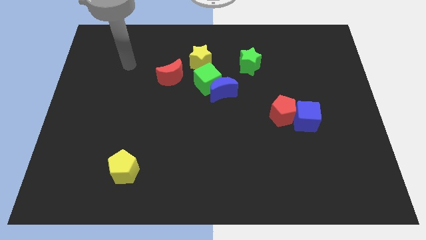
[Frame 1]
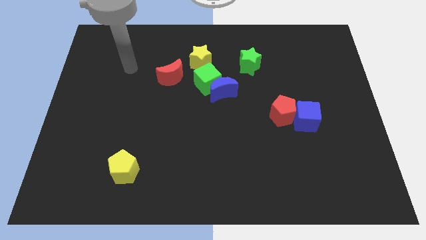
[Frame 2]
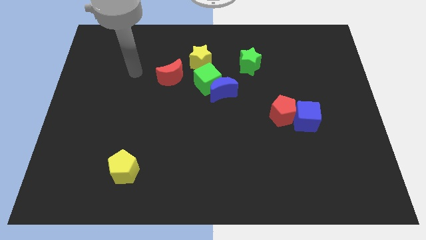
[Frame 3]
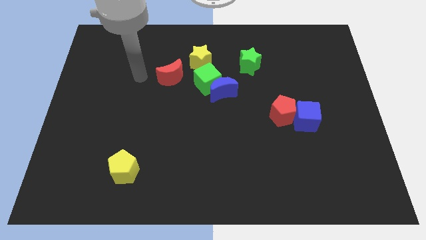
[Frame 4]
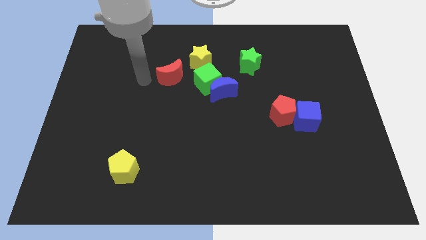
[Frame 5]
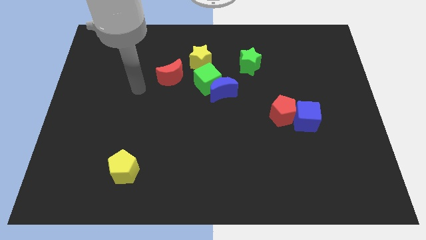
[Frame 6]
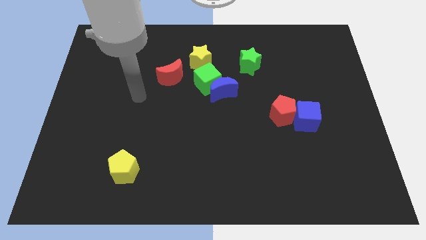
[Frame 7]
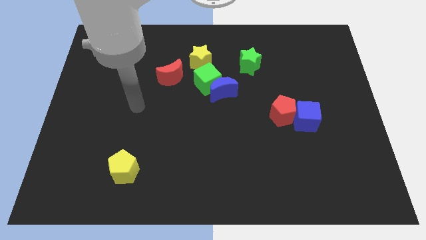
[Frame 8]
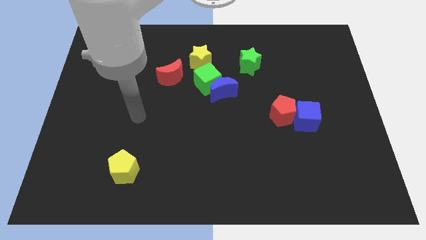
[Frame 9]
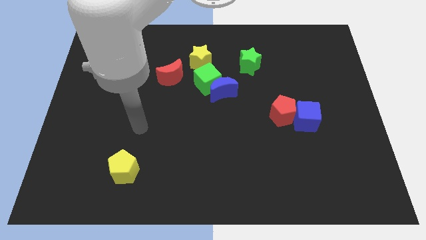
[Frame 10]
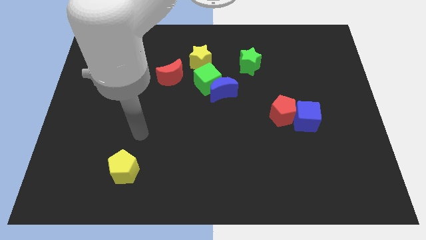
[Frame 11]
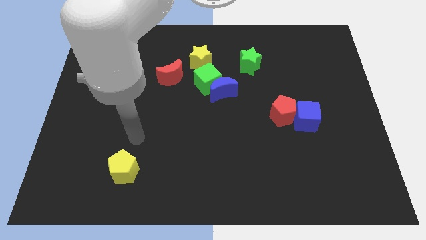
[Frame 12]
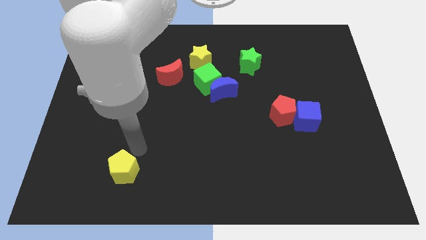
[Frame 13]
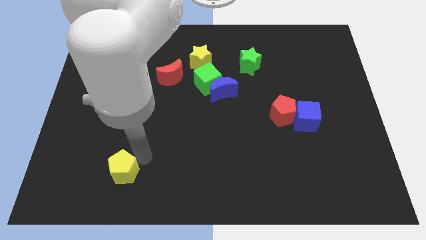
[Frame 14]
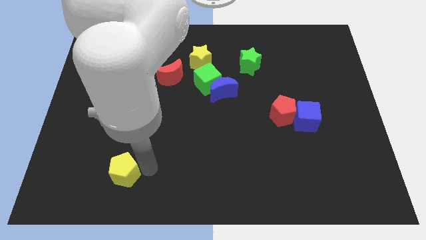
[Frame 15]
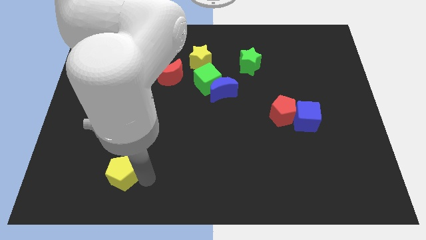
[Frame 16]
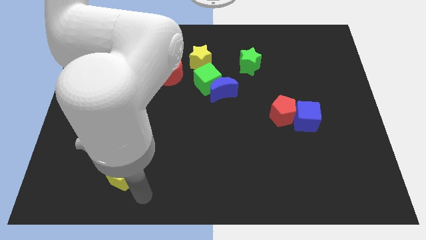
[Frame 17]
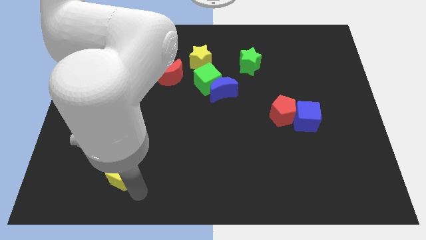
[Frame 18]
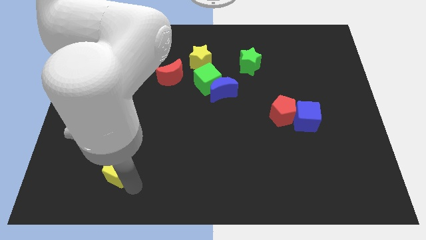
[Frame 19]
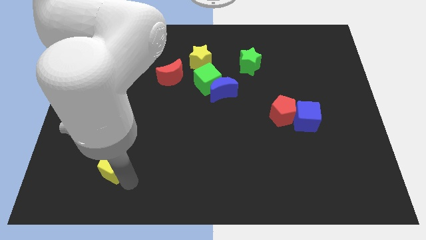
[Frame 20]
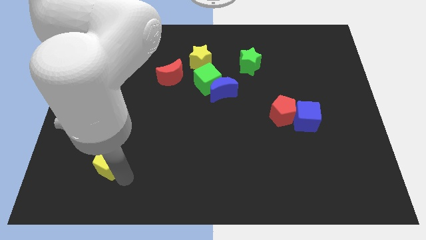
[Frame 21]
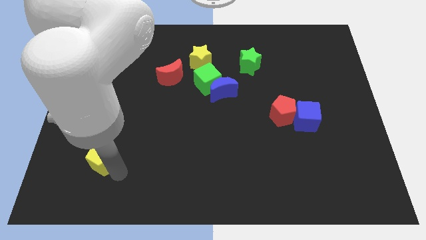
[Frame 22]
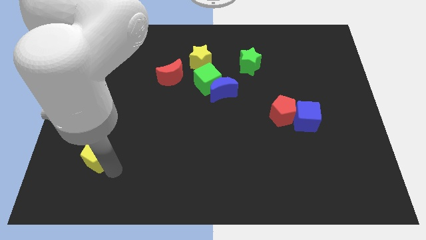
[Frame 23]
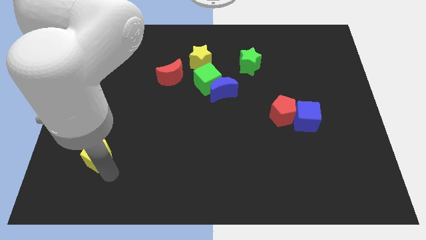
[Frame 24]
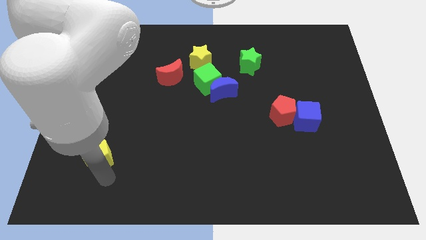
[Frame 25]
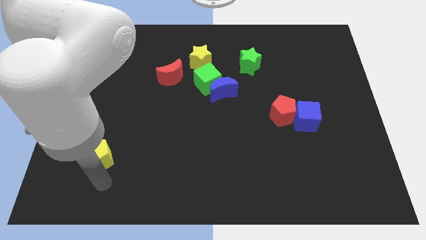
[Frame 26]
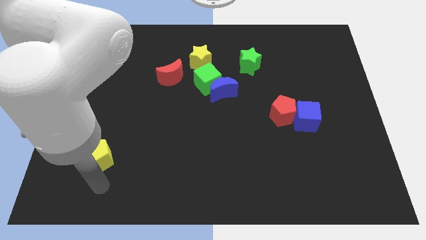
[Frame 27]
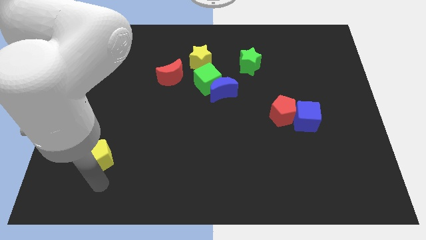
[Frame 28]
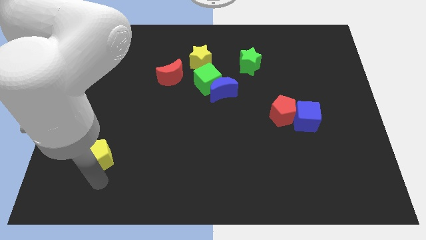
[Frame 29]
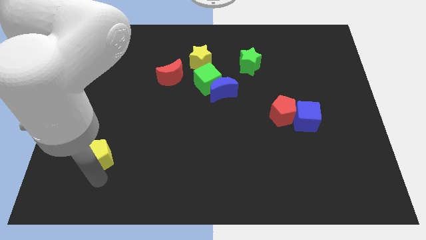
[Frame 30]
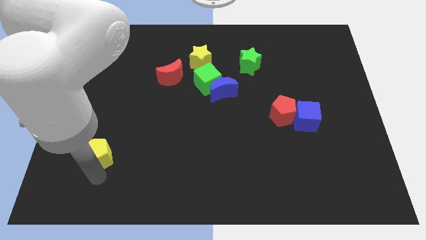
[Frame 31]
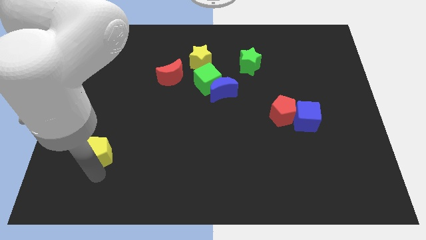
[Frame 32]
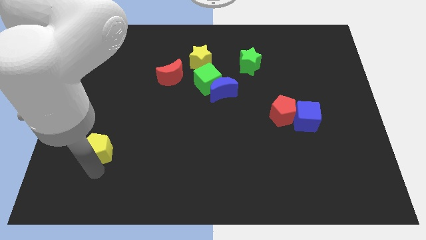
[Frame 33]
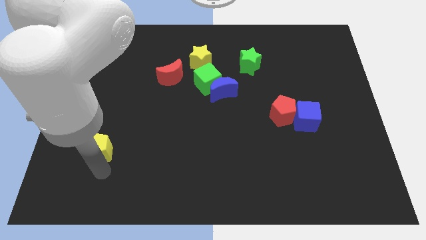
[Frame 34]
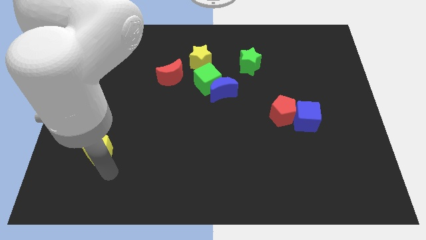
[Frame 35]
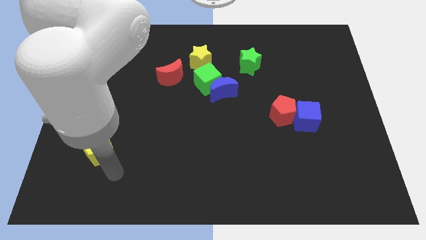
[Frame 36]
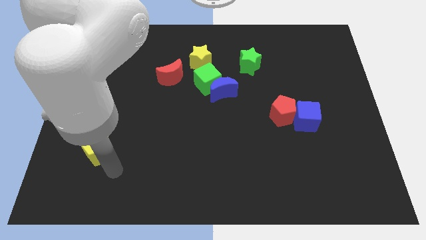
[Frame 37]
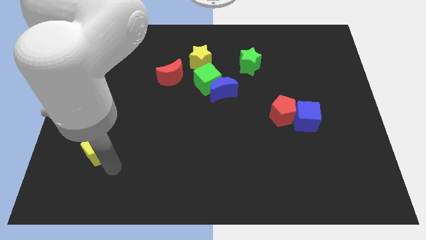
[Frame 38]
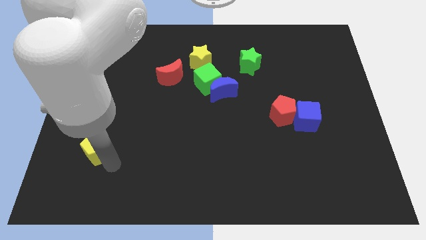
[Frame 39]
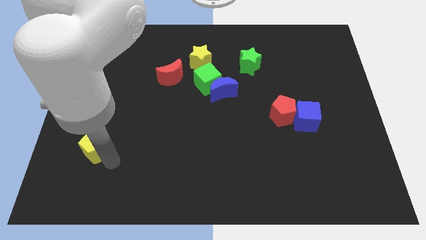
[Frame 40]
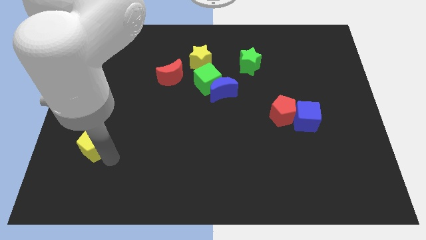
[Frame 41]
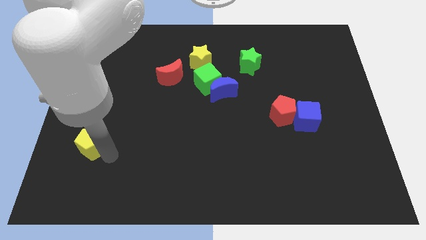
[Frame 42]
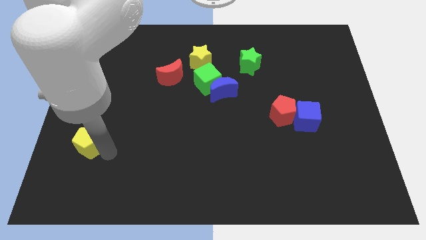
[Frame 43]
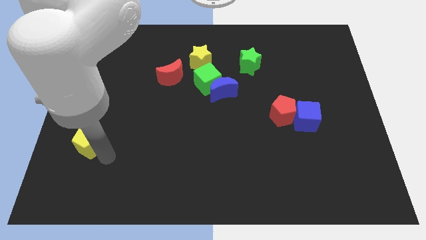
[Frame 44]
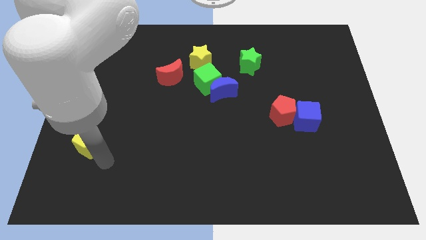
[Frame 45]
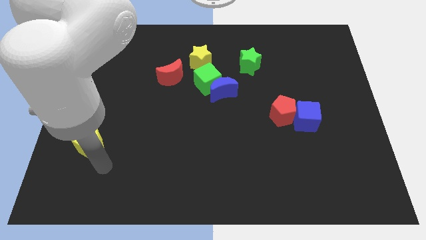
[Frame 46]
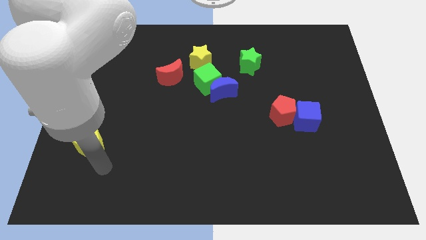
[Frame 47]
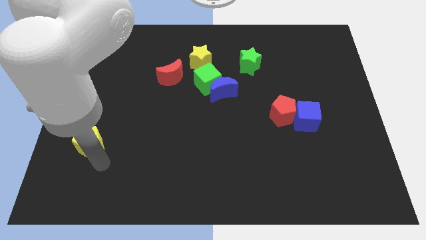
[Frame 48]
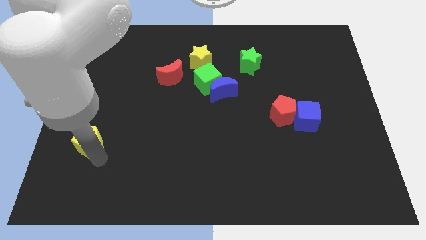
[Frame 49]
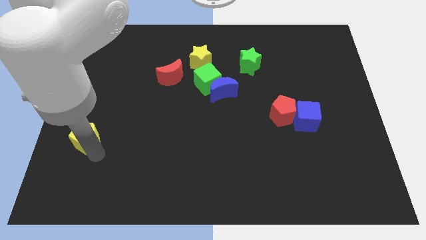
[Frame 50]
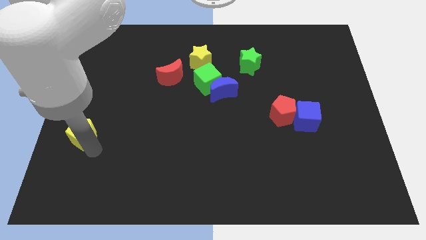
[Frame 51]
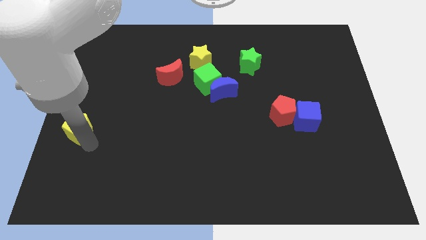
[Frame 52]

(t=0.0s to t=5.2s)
move the yellow pentagon to the left side of the board

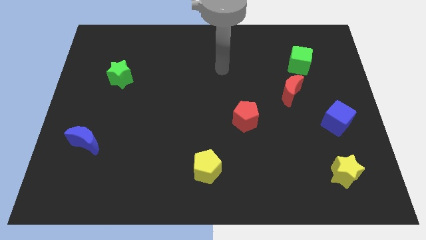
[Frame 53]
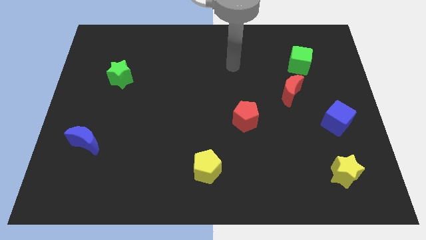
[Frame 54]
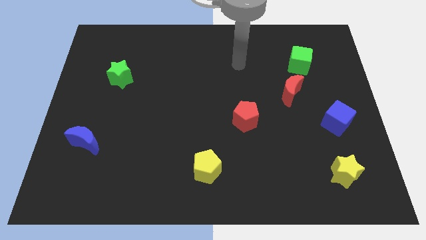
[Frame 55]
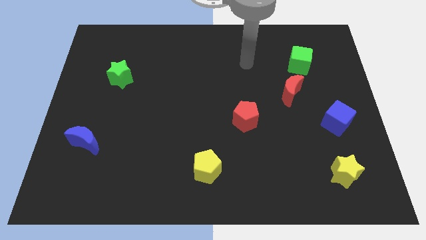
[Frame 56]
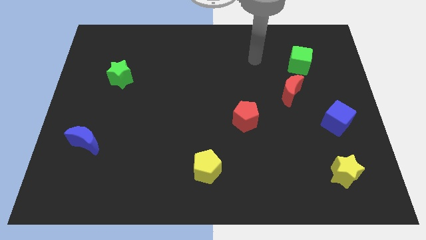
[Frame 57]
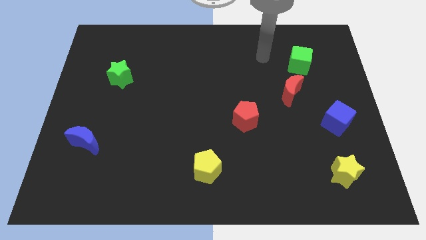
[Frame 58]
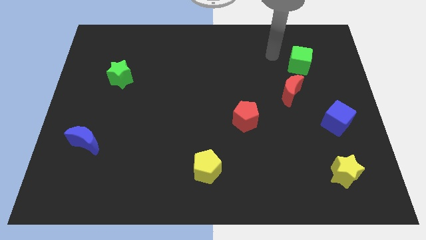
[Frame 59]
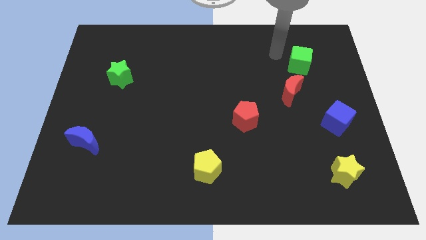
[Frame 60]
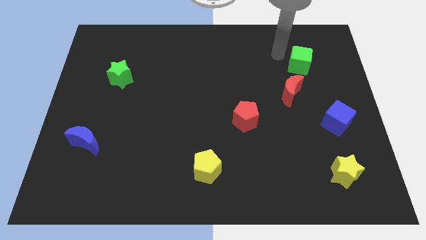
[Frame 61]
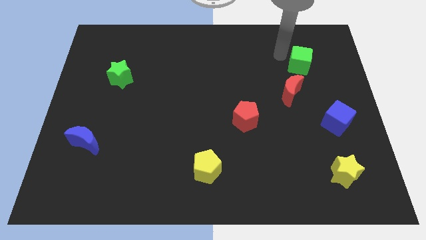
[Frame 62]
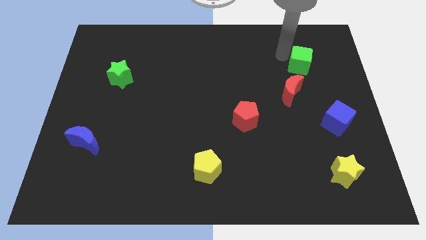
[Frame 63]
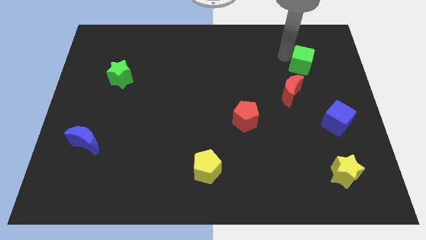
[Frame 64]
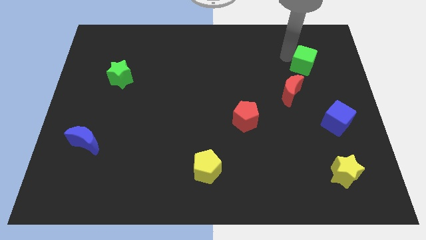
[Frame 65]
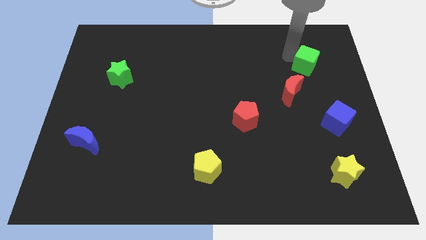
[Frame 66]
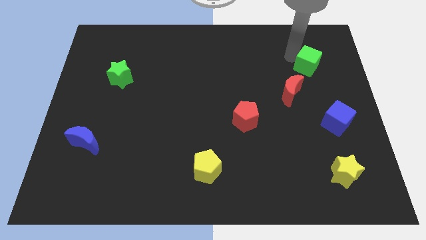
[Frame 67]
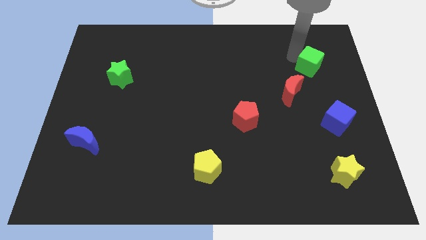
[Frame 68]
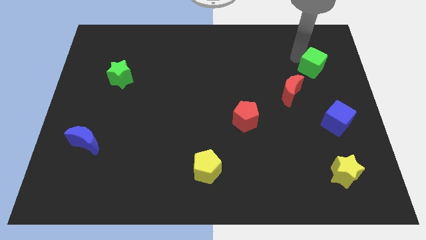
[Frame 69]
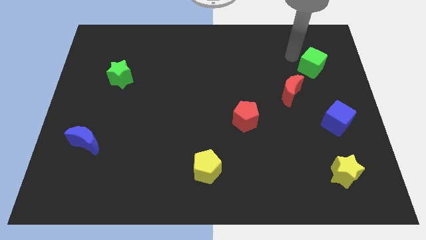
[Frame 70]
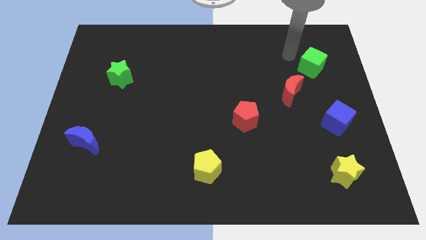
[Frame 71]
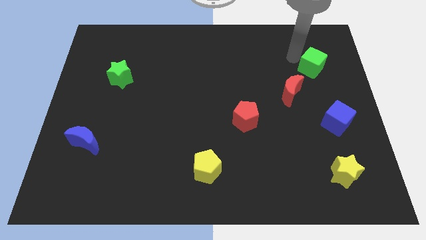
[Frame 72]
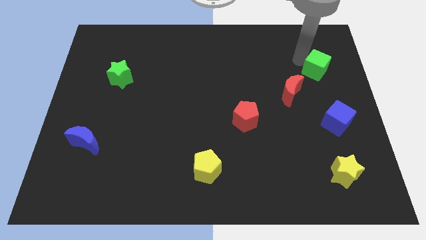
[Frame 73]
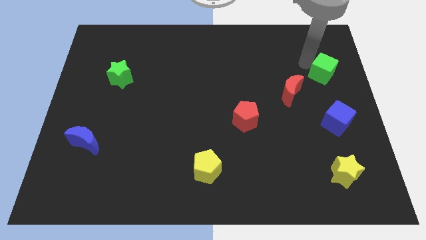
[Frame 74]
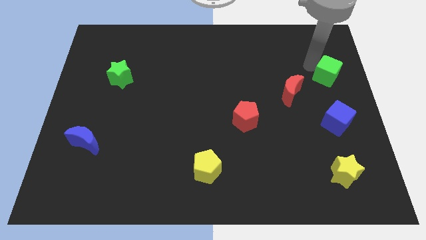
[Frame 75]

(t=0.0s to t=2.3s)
push the green cube to the center right
